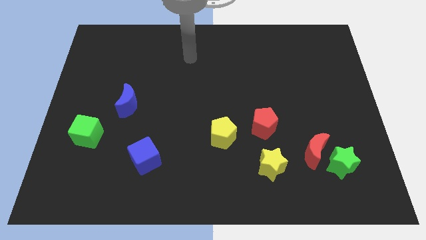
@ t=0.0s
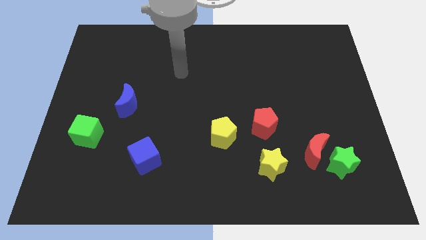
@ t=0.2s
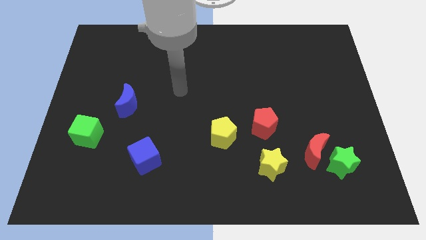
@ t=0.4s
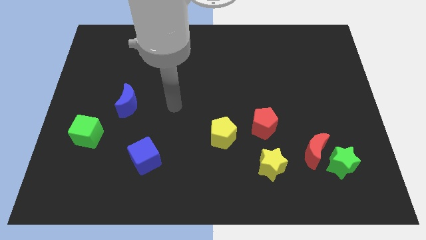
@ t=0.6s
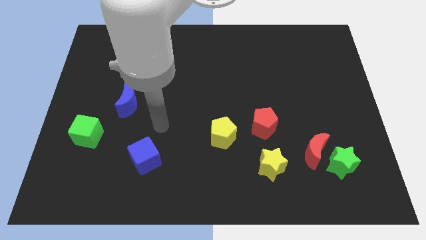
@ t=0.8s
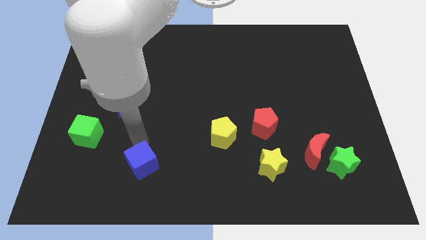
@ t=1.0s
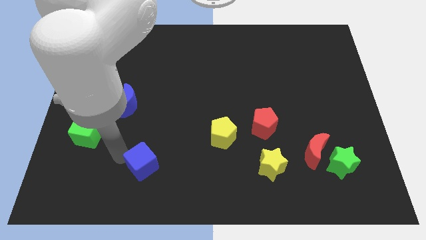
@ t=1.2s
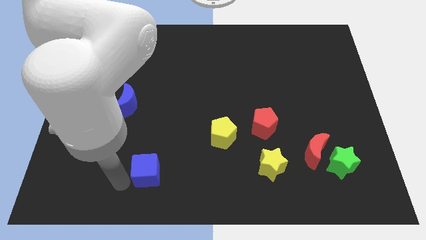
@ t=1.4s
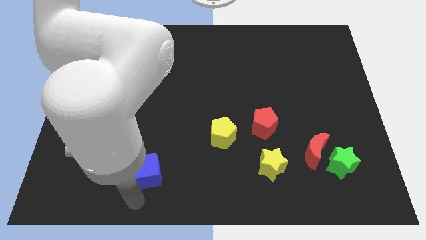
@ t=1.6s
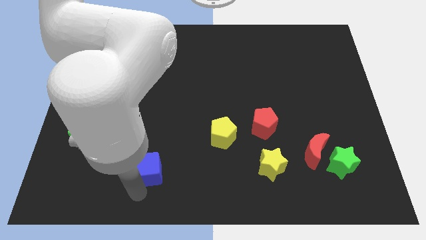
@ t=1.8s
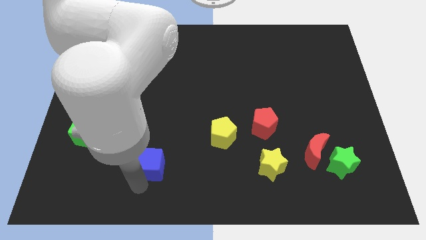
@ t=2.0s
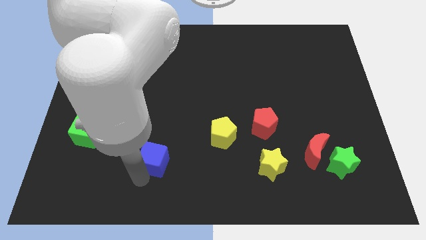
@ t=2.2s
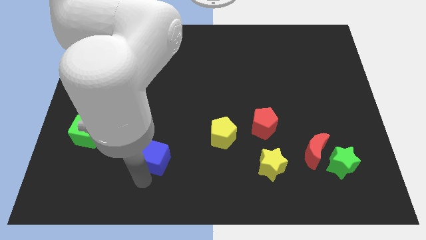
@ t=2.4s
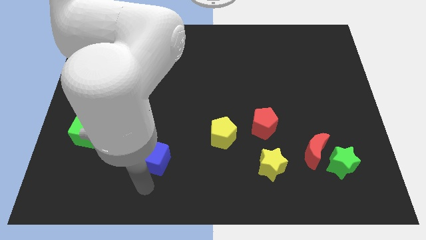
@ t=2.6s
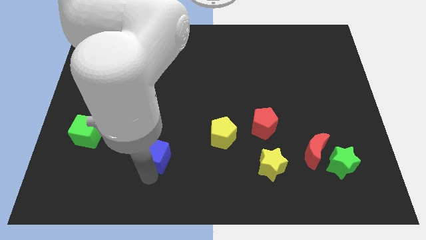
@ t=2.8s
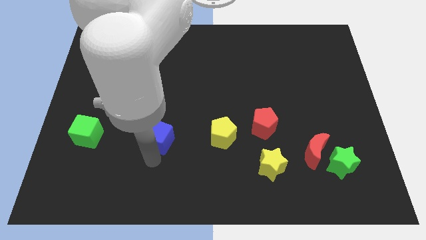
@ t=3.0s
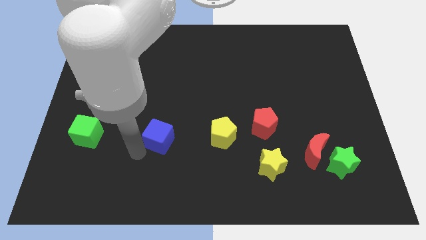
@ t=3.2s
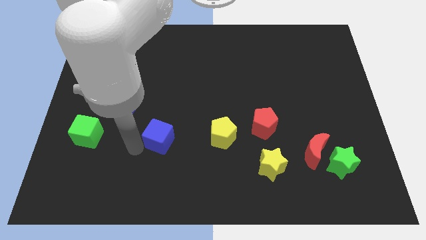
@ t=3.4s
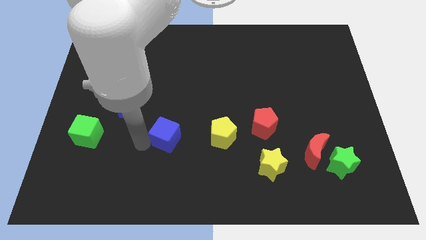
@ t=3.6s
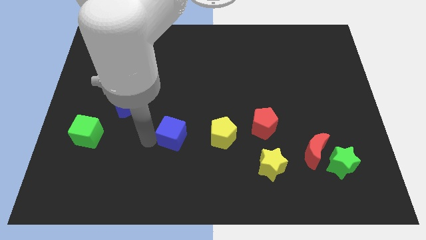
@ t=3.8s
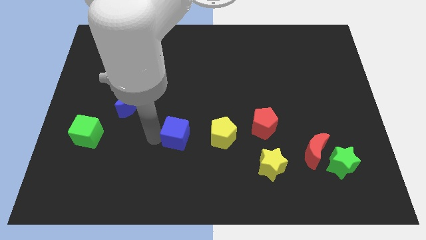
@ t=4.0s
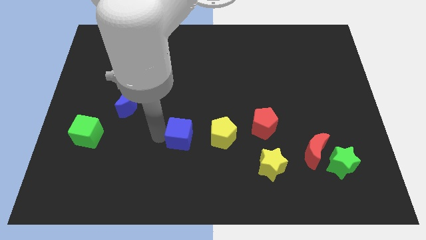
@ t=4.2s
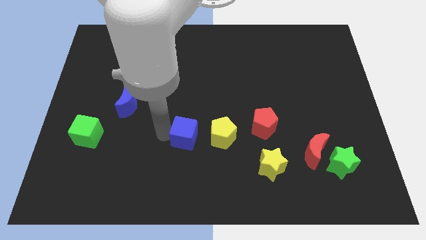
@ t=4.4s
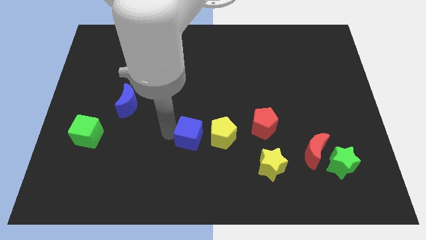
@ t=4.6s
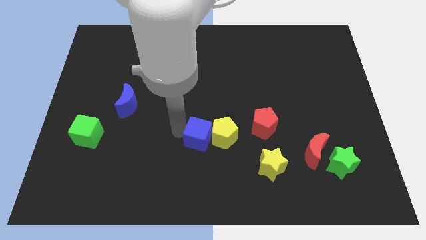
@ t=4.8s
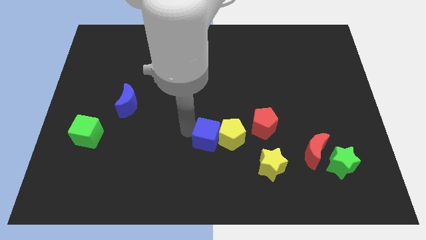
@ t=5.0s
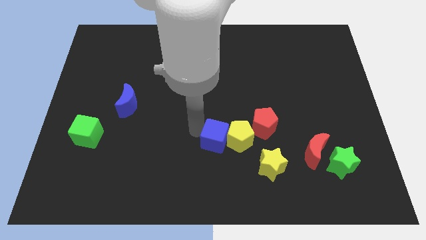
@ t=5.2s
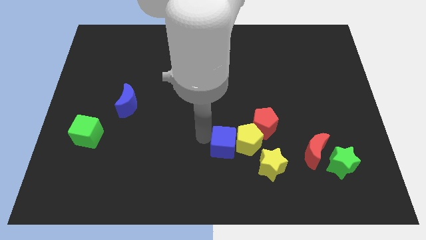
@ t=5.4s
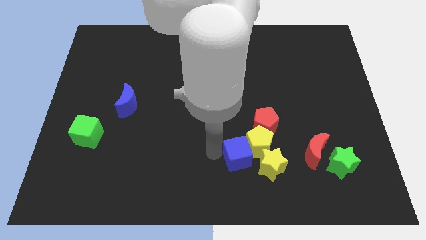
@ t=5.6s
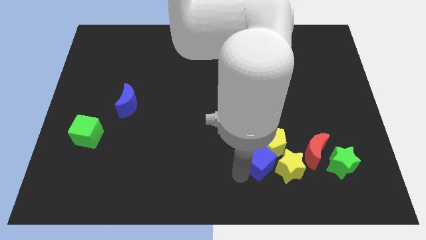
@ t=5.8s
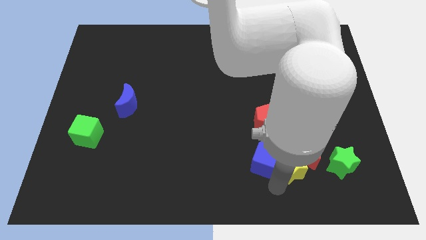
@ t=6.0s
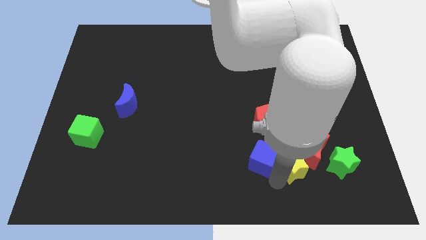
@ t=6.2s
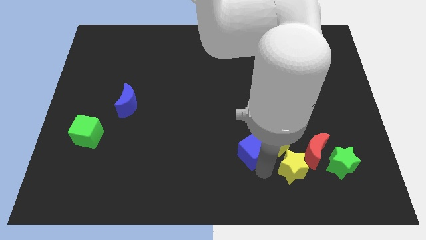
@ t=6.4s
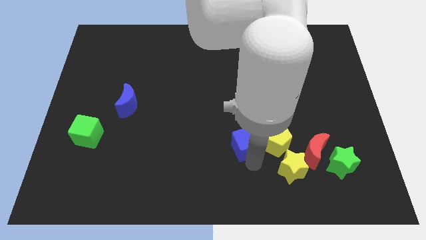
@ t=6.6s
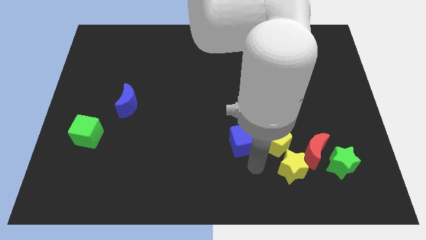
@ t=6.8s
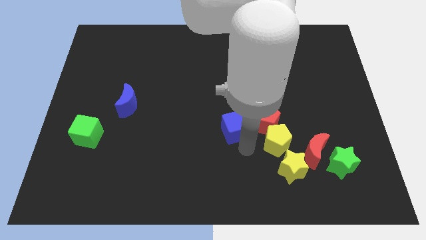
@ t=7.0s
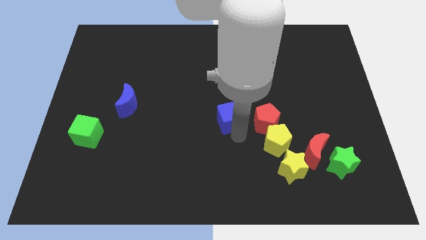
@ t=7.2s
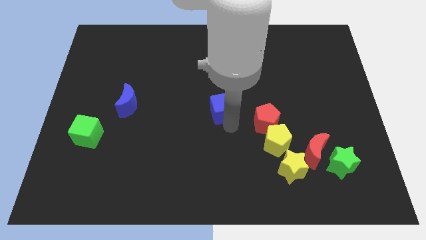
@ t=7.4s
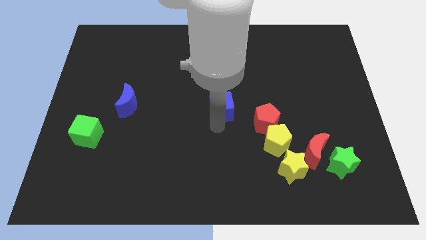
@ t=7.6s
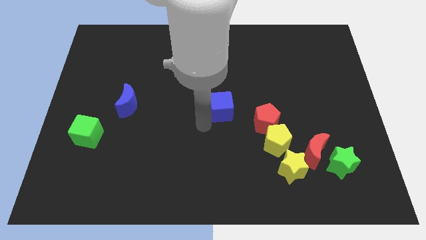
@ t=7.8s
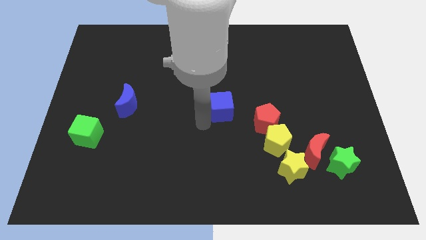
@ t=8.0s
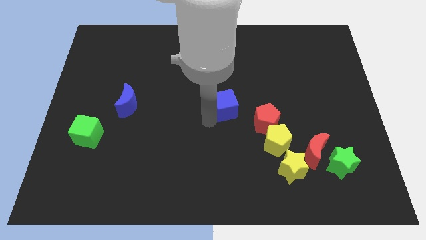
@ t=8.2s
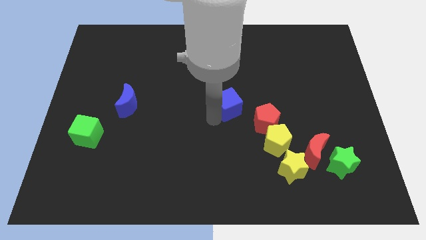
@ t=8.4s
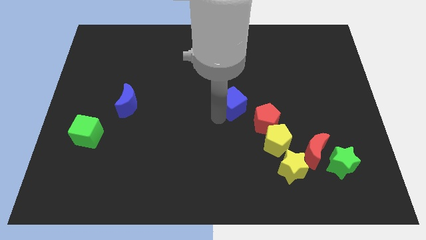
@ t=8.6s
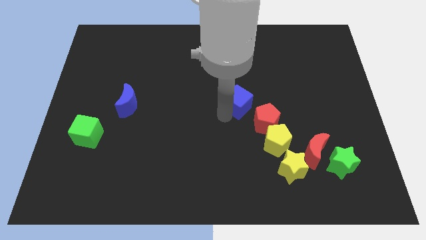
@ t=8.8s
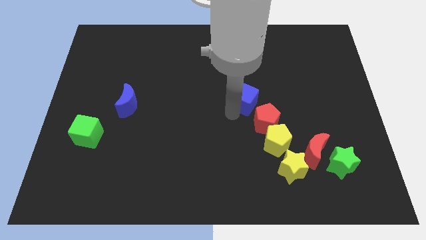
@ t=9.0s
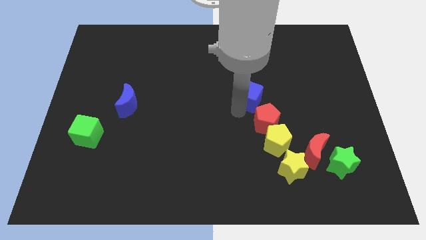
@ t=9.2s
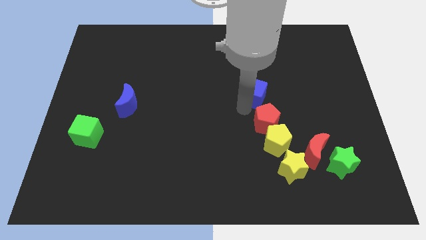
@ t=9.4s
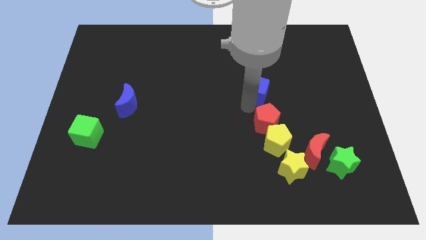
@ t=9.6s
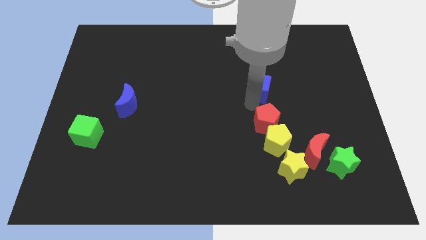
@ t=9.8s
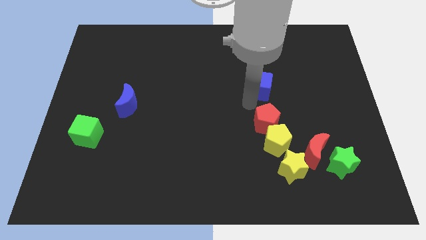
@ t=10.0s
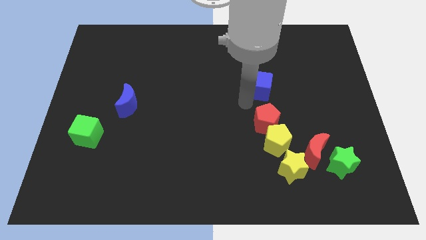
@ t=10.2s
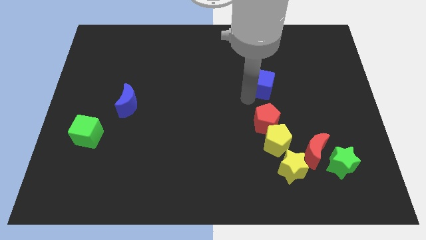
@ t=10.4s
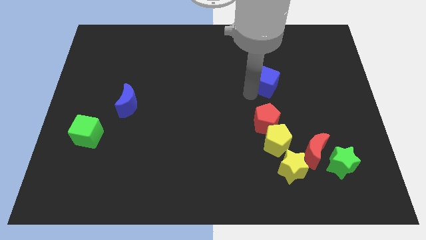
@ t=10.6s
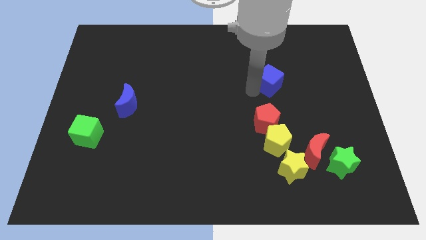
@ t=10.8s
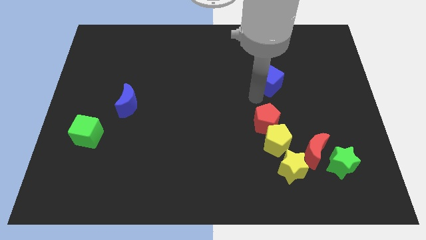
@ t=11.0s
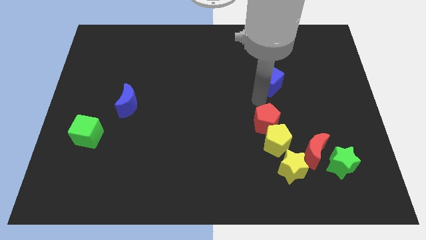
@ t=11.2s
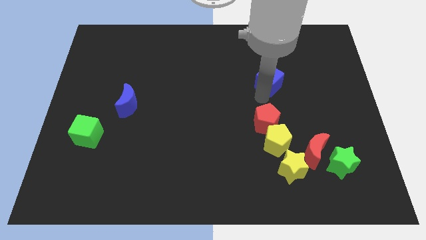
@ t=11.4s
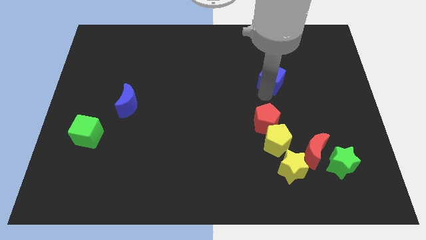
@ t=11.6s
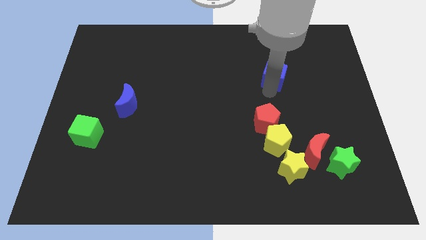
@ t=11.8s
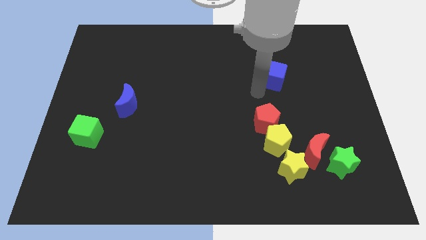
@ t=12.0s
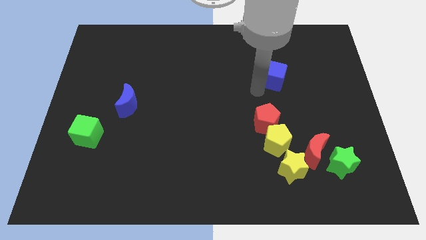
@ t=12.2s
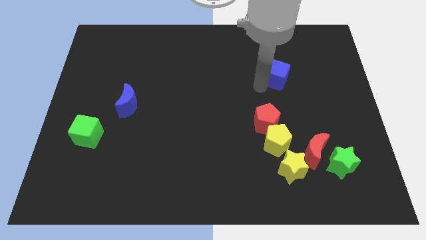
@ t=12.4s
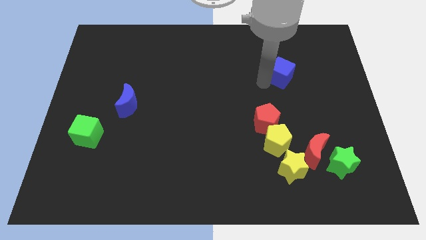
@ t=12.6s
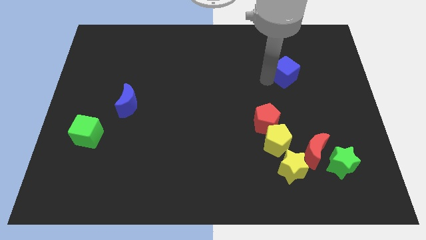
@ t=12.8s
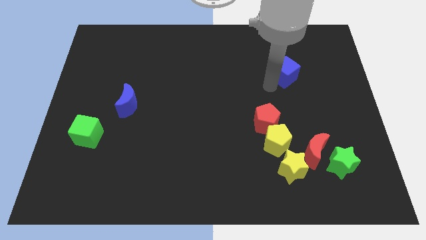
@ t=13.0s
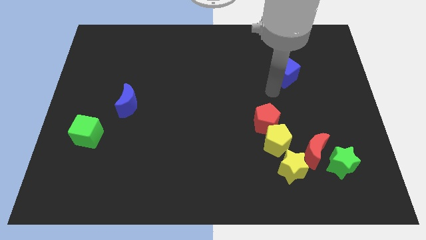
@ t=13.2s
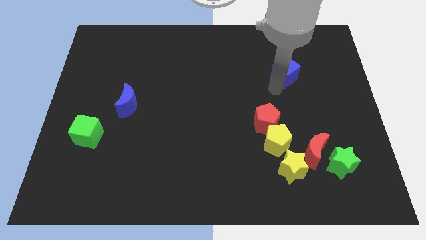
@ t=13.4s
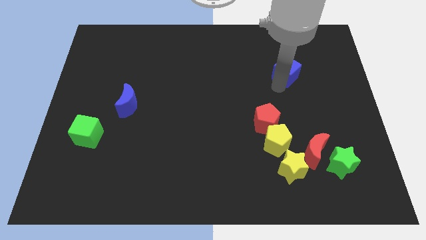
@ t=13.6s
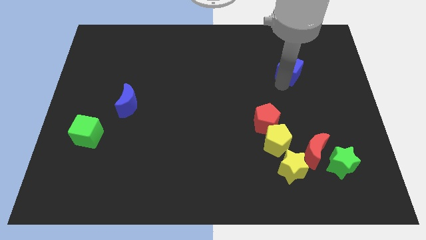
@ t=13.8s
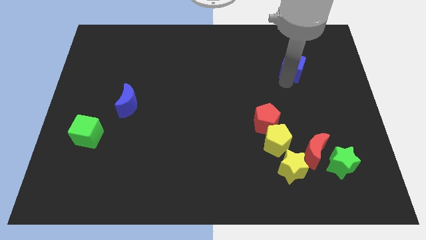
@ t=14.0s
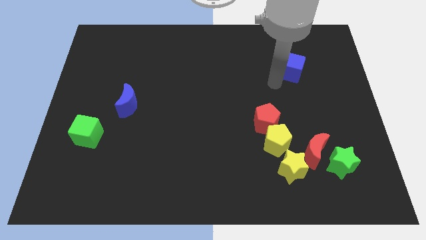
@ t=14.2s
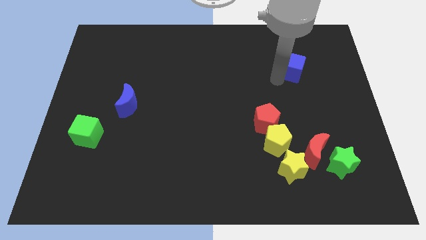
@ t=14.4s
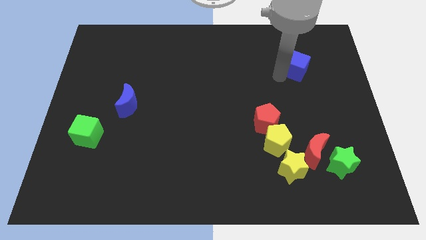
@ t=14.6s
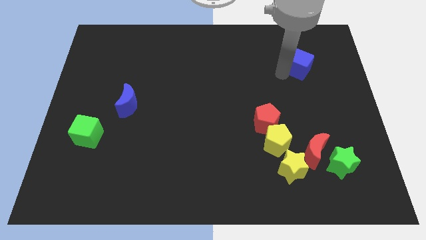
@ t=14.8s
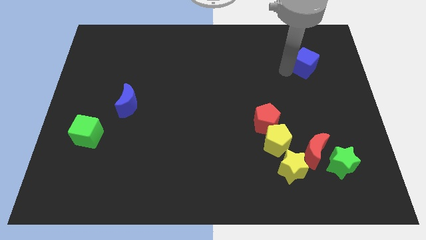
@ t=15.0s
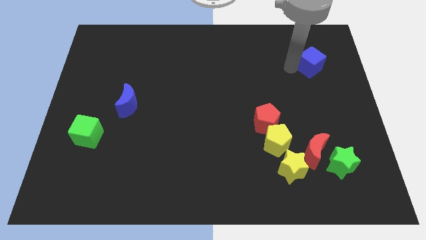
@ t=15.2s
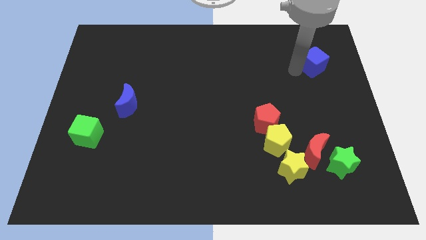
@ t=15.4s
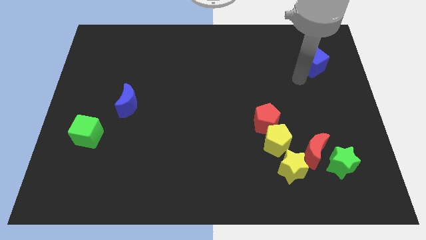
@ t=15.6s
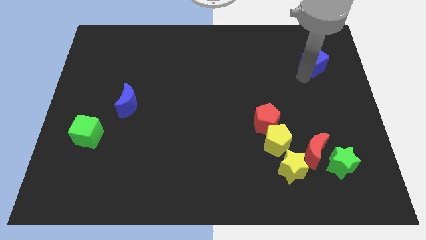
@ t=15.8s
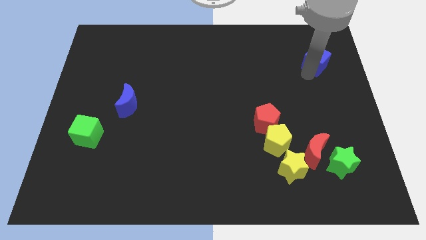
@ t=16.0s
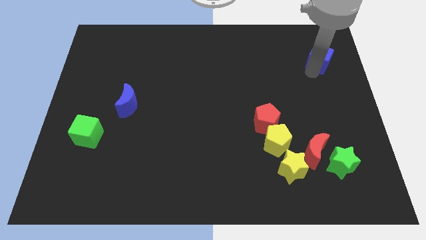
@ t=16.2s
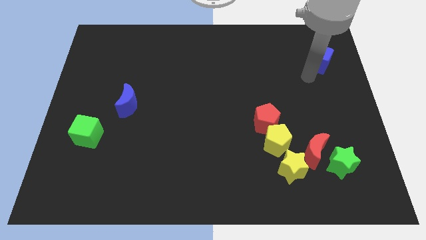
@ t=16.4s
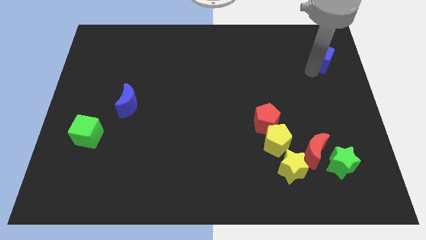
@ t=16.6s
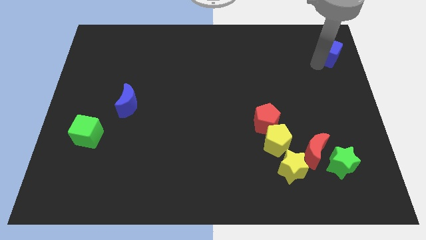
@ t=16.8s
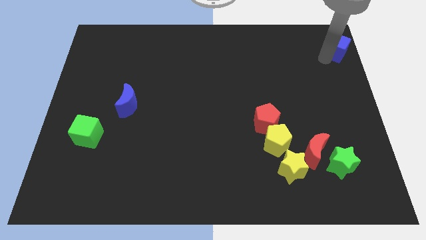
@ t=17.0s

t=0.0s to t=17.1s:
push the blue cube to the top right corner
